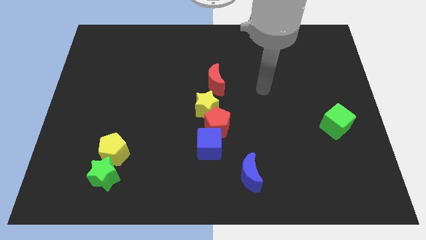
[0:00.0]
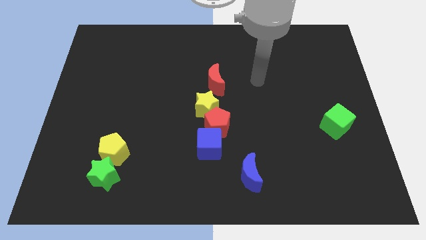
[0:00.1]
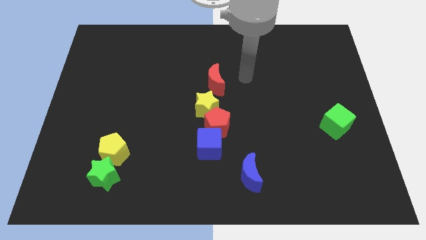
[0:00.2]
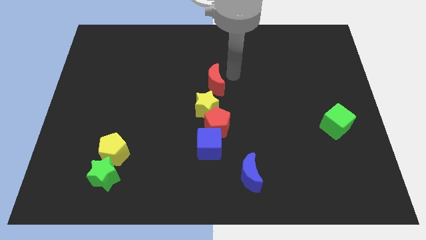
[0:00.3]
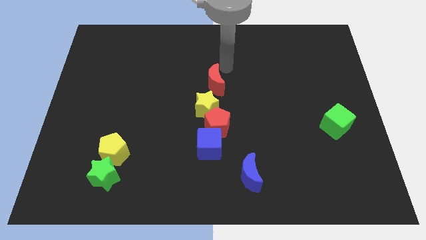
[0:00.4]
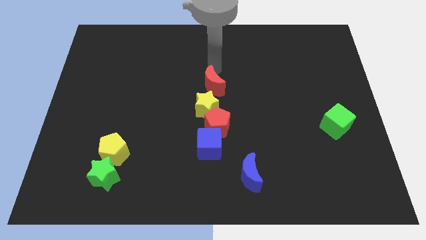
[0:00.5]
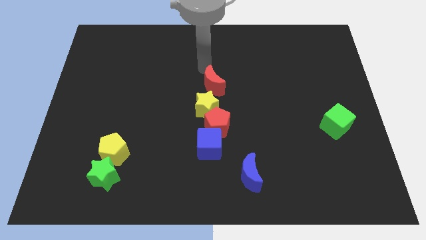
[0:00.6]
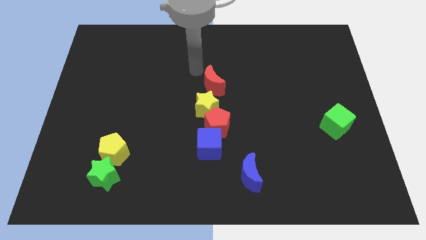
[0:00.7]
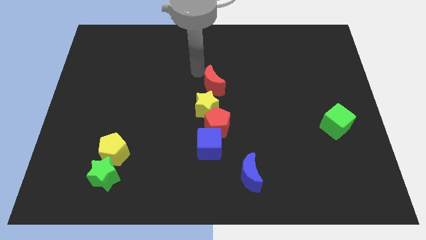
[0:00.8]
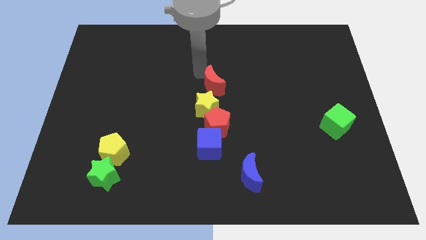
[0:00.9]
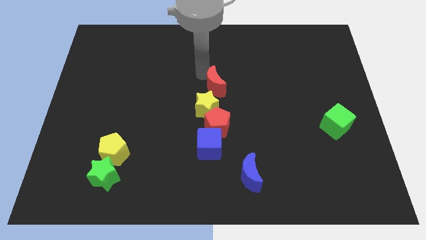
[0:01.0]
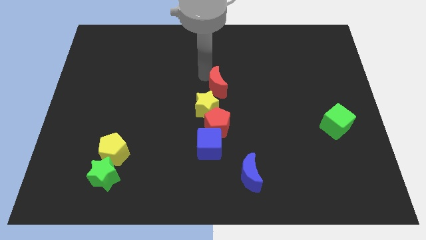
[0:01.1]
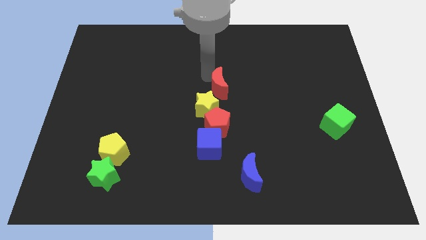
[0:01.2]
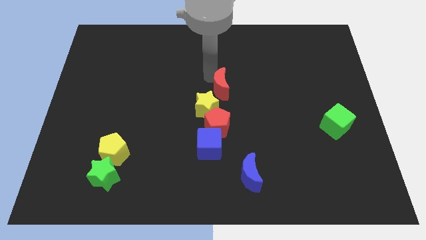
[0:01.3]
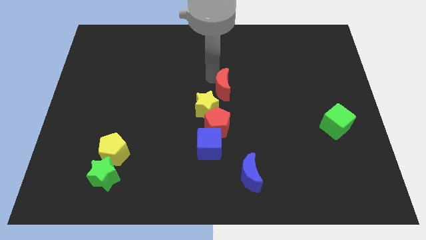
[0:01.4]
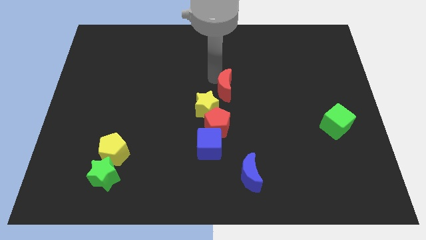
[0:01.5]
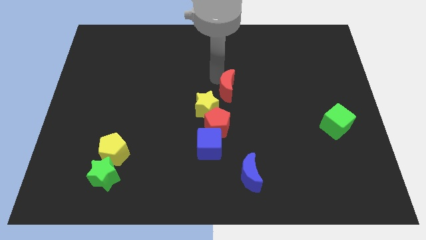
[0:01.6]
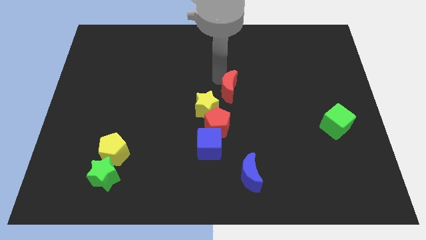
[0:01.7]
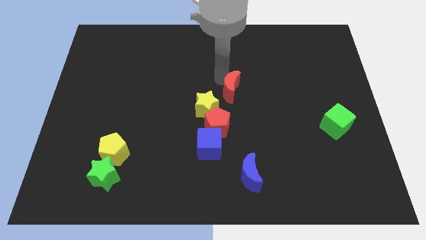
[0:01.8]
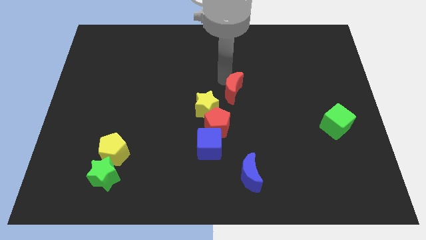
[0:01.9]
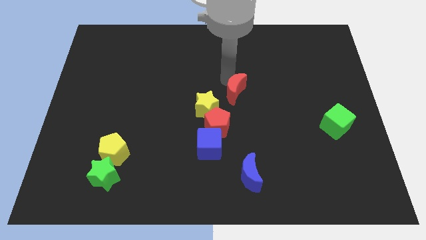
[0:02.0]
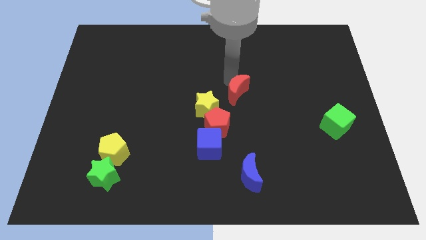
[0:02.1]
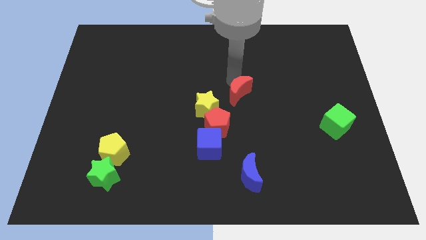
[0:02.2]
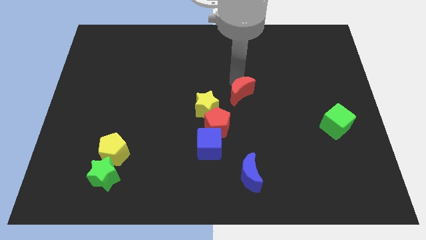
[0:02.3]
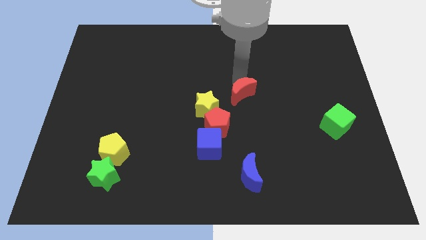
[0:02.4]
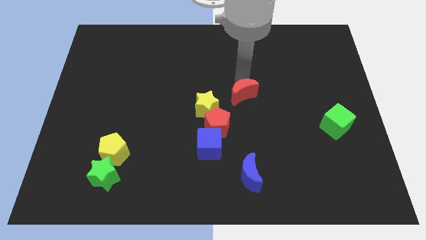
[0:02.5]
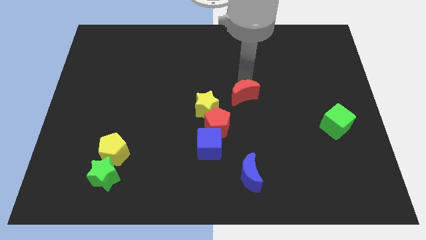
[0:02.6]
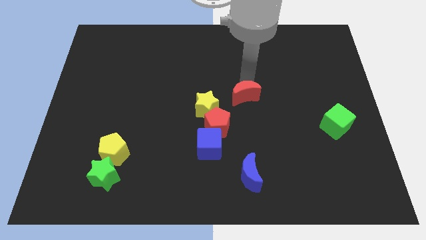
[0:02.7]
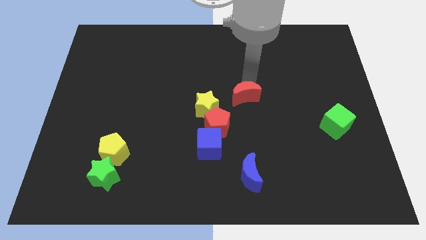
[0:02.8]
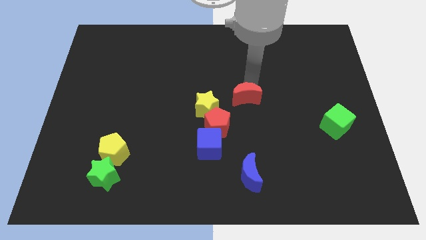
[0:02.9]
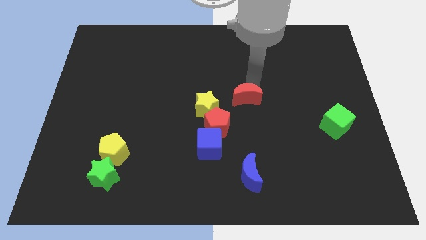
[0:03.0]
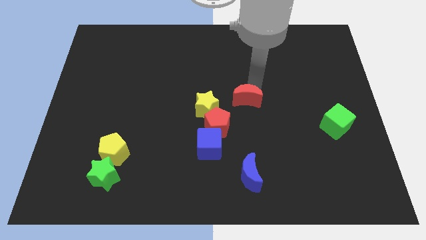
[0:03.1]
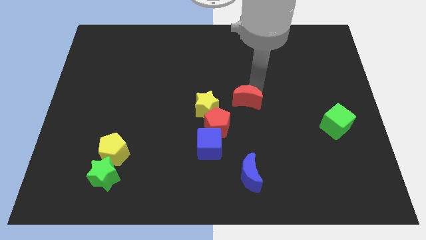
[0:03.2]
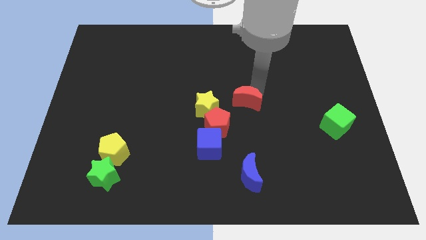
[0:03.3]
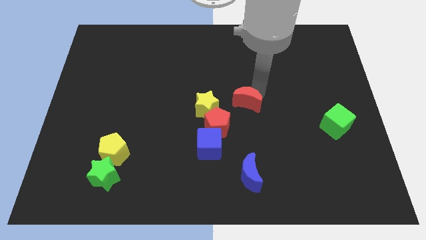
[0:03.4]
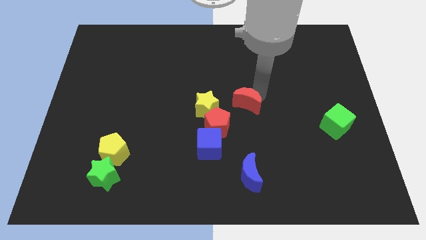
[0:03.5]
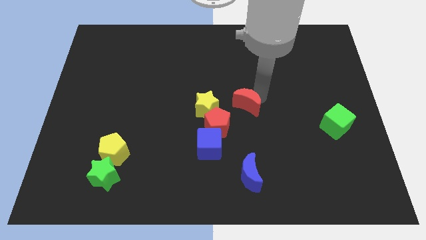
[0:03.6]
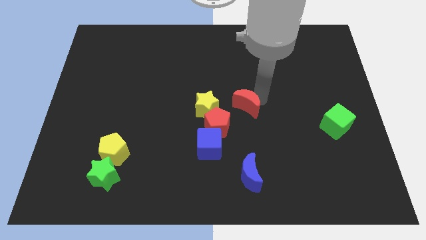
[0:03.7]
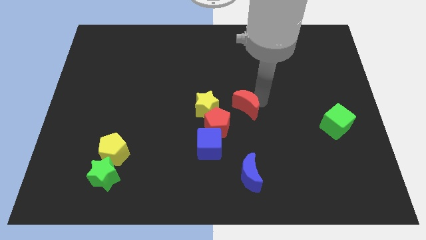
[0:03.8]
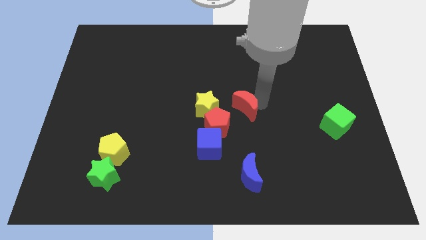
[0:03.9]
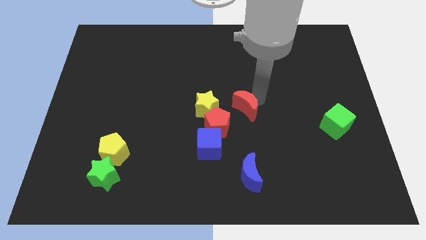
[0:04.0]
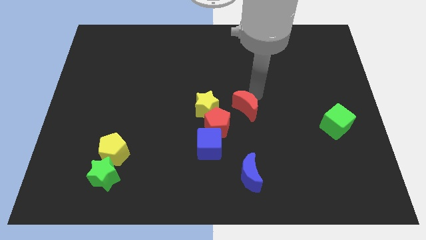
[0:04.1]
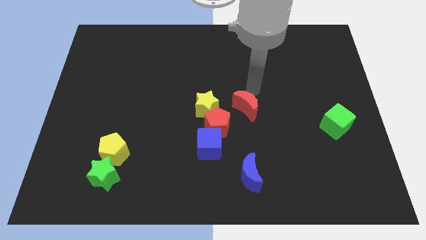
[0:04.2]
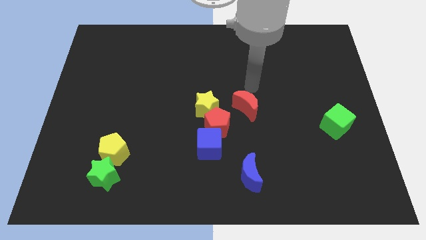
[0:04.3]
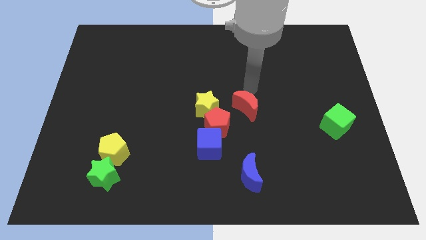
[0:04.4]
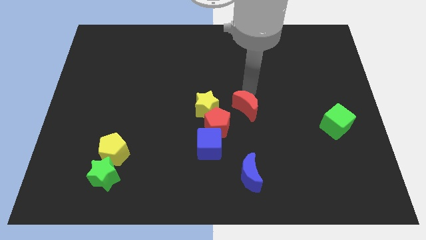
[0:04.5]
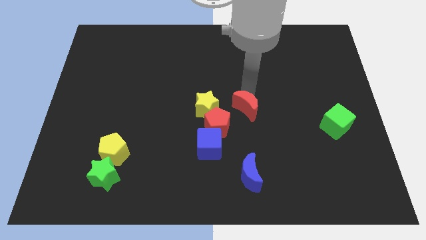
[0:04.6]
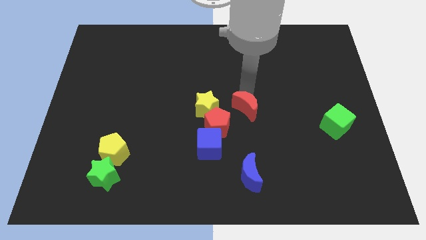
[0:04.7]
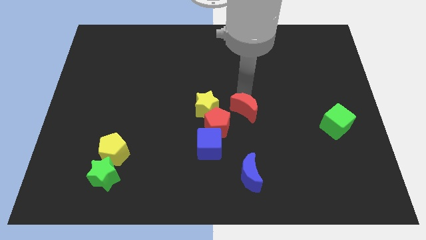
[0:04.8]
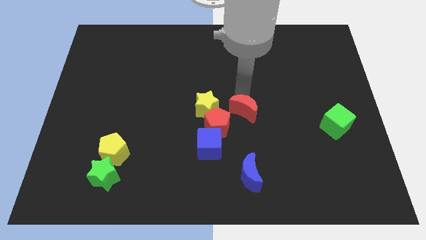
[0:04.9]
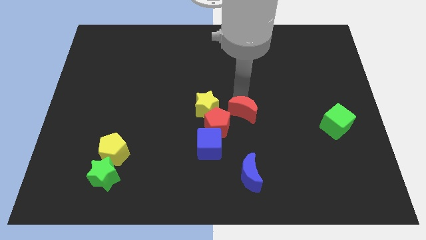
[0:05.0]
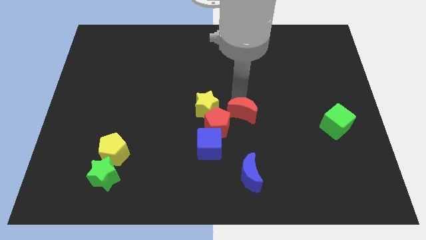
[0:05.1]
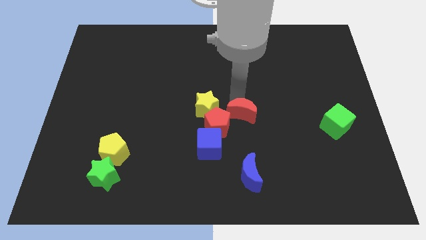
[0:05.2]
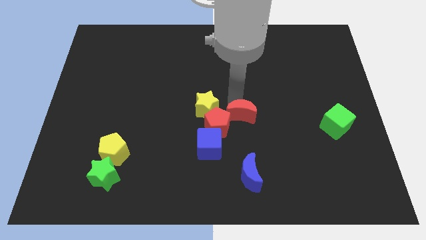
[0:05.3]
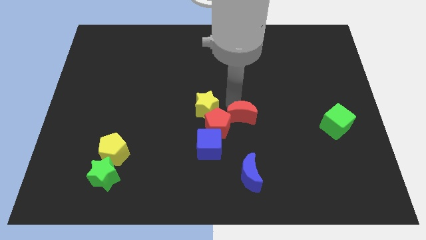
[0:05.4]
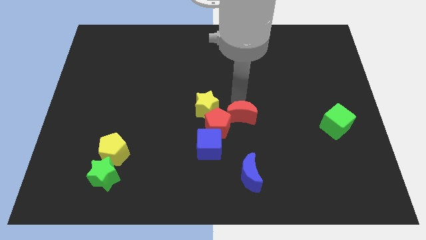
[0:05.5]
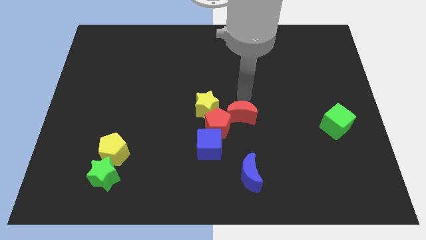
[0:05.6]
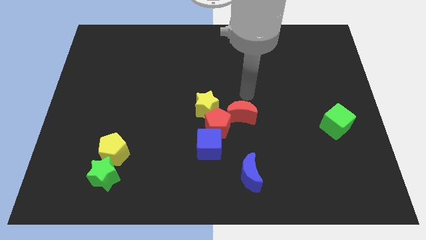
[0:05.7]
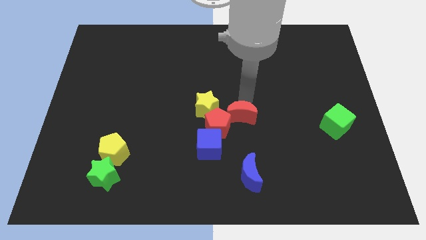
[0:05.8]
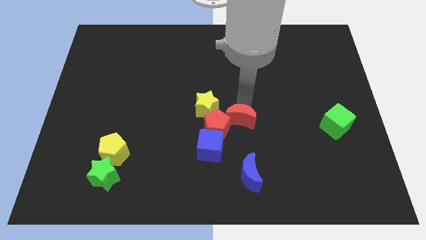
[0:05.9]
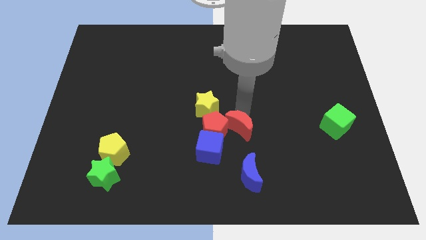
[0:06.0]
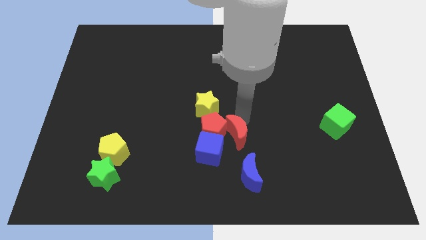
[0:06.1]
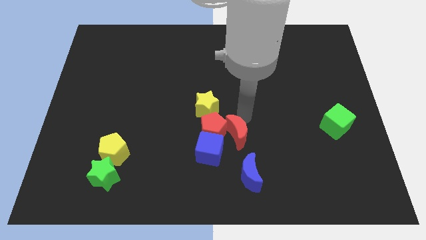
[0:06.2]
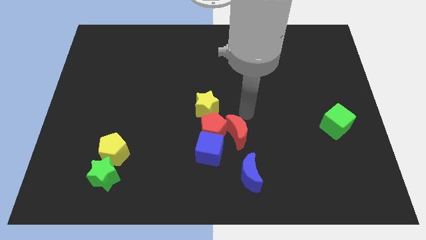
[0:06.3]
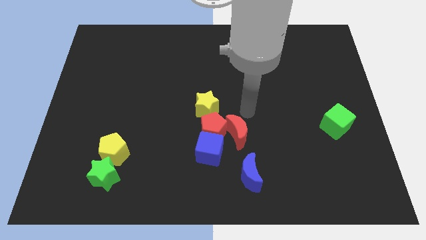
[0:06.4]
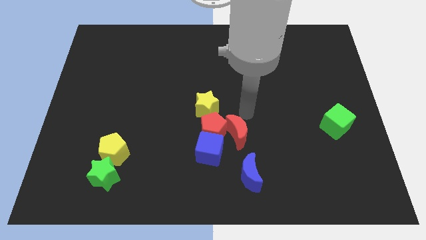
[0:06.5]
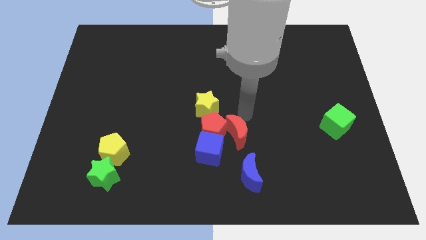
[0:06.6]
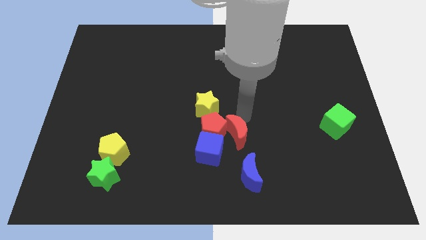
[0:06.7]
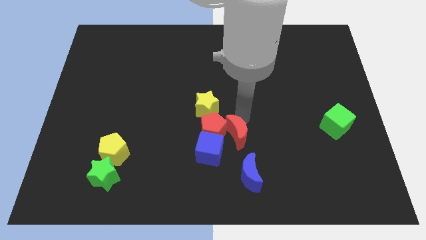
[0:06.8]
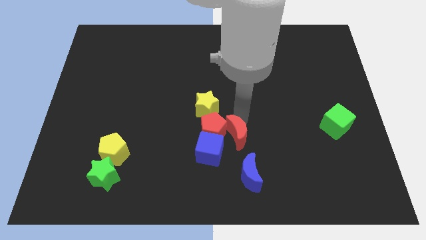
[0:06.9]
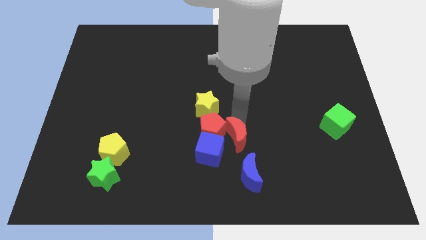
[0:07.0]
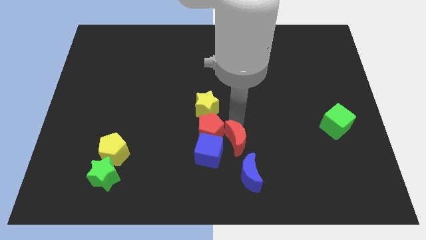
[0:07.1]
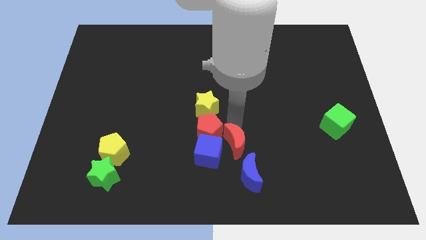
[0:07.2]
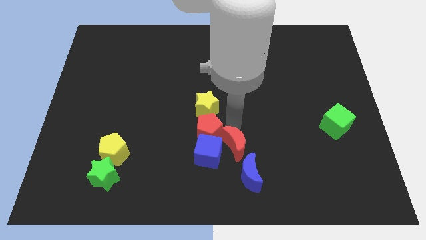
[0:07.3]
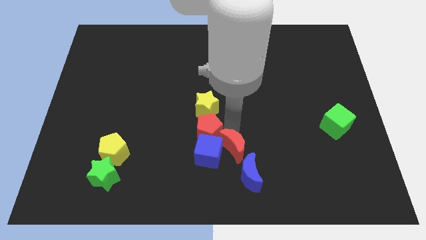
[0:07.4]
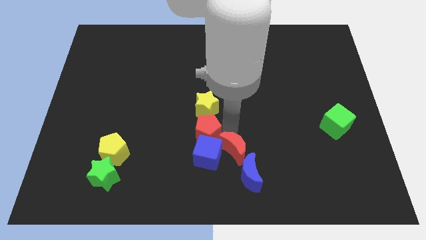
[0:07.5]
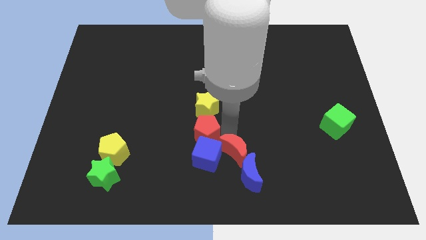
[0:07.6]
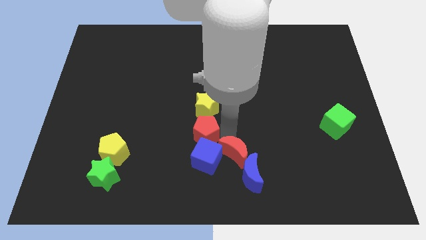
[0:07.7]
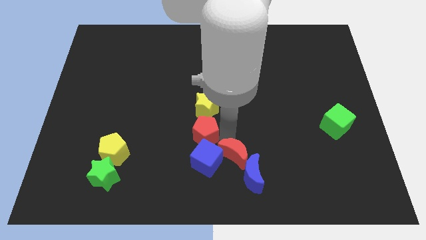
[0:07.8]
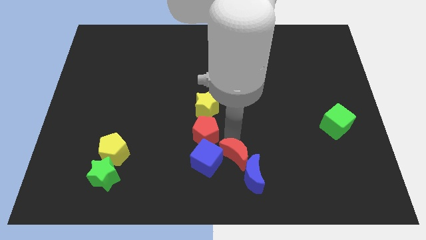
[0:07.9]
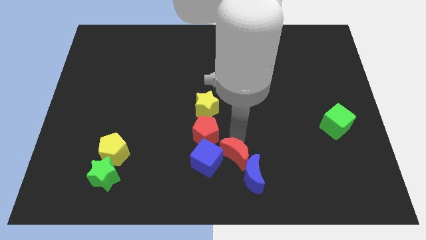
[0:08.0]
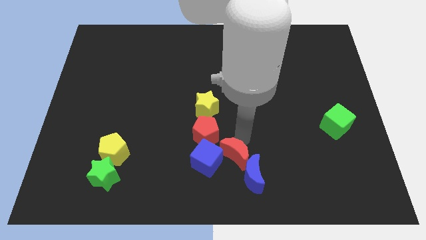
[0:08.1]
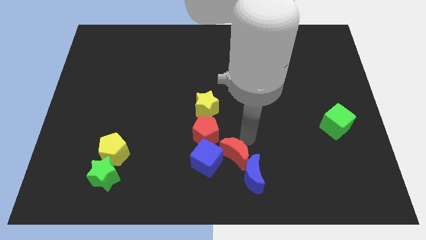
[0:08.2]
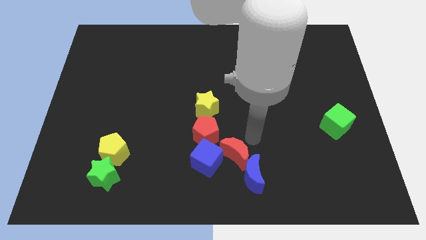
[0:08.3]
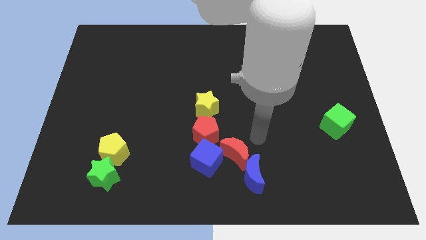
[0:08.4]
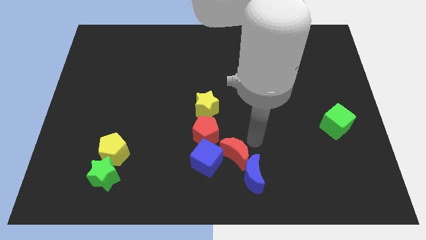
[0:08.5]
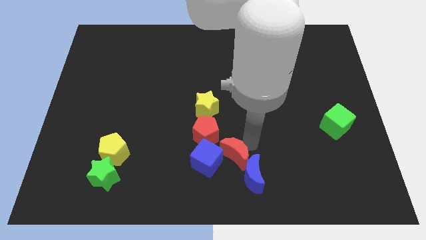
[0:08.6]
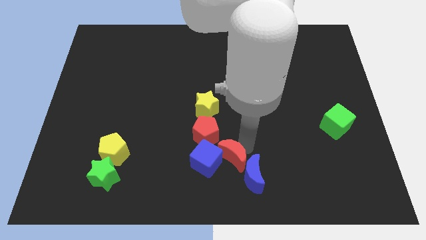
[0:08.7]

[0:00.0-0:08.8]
push the red moon to the bottom
